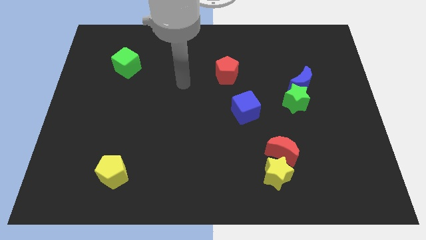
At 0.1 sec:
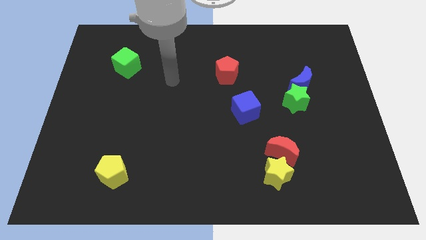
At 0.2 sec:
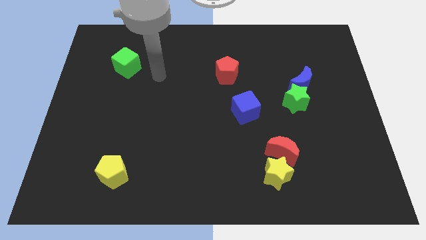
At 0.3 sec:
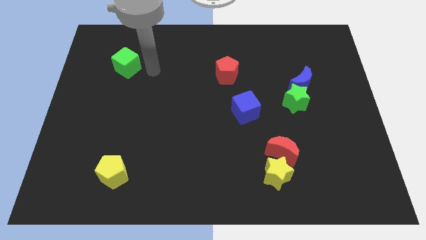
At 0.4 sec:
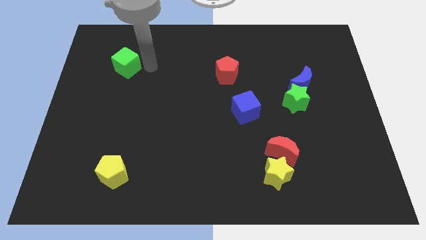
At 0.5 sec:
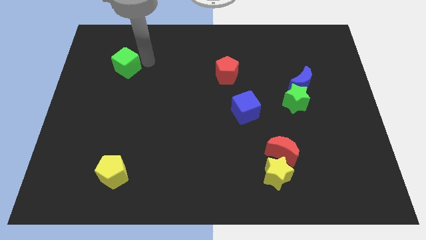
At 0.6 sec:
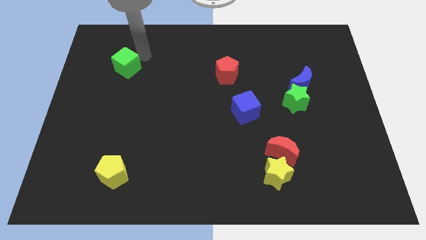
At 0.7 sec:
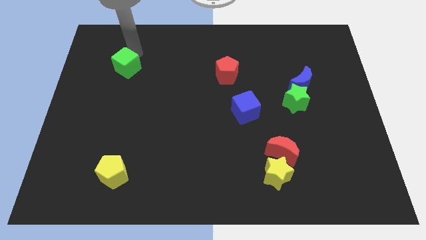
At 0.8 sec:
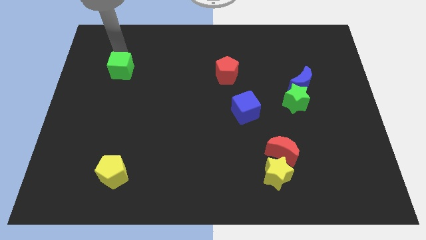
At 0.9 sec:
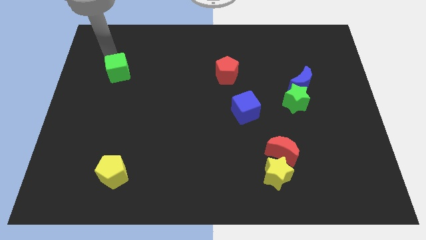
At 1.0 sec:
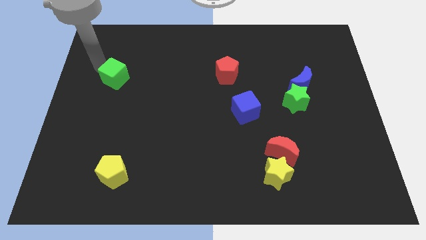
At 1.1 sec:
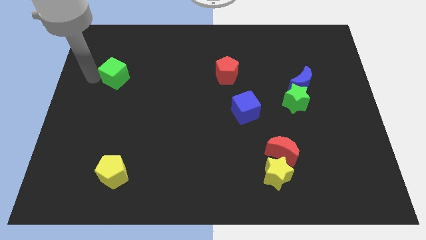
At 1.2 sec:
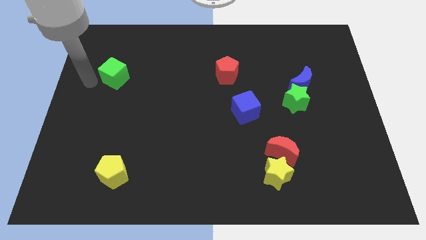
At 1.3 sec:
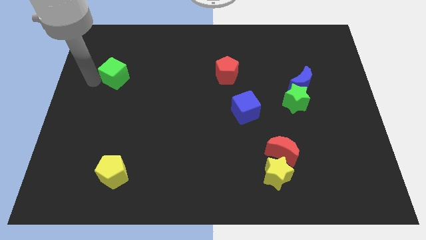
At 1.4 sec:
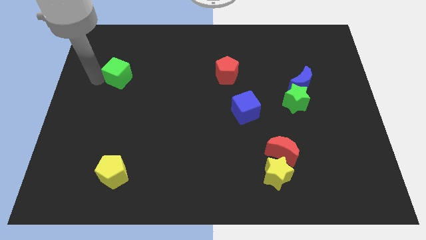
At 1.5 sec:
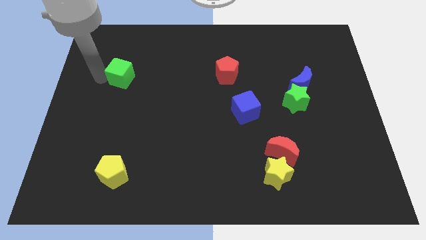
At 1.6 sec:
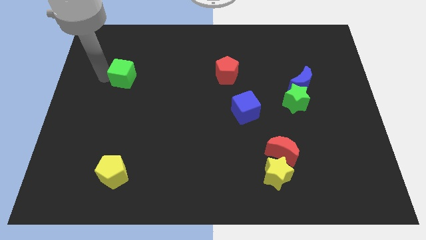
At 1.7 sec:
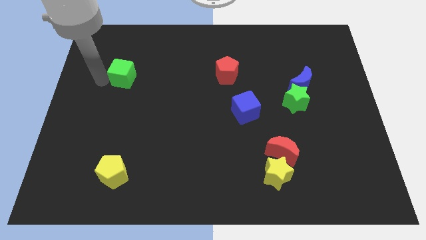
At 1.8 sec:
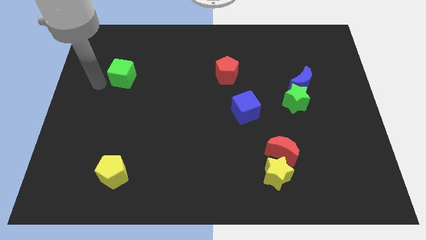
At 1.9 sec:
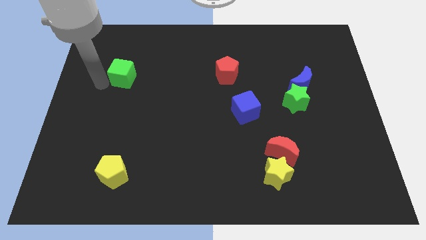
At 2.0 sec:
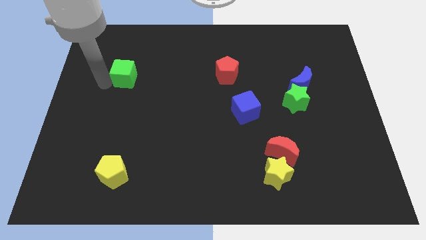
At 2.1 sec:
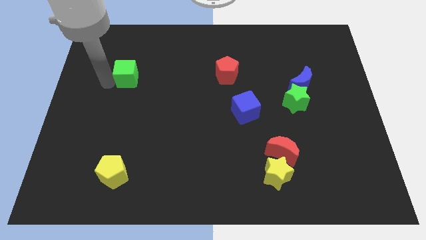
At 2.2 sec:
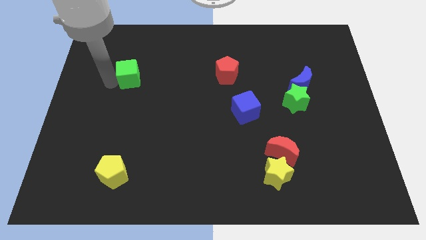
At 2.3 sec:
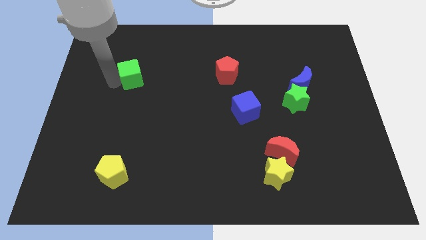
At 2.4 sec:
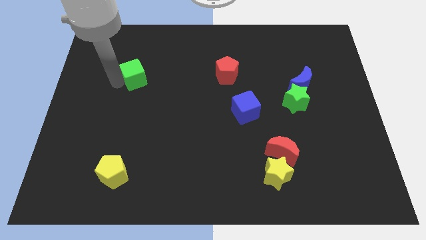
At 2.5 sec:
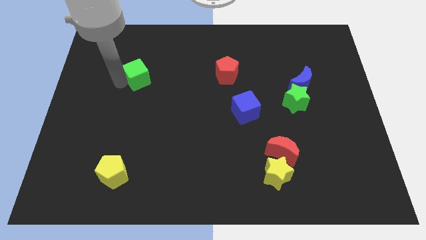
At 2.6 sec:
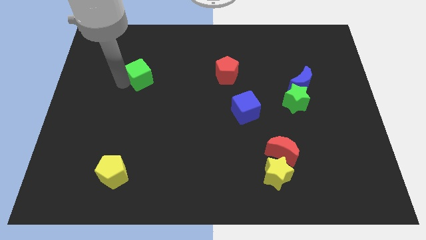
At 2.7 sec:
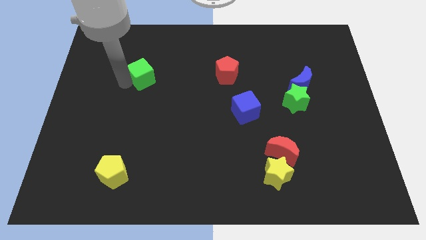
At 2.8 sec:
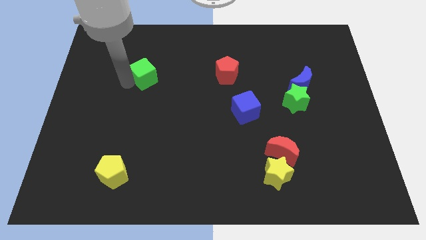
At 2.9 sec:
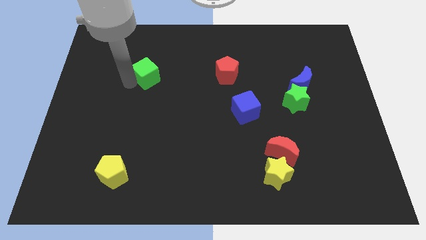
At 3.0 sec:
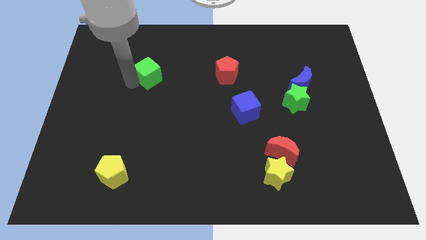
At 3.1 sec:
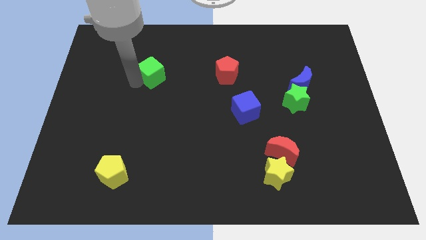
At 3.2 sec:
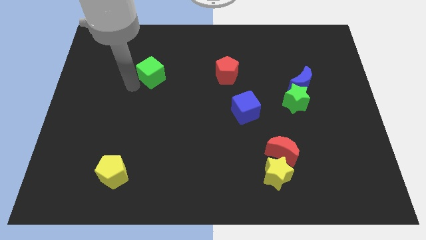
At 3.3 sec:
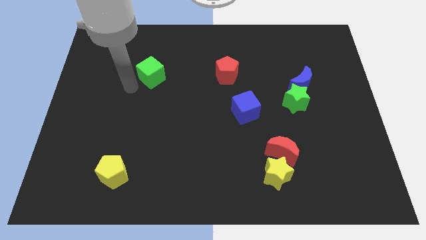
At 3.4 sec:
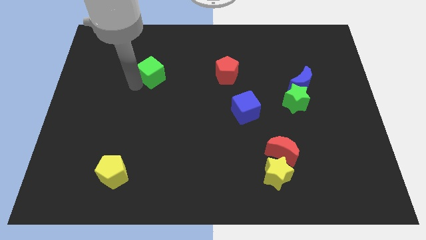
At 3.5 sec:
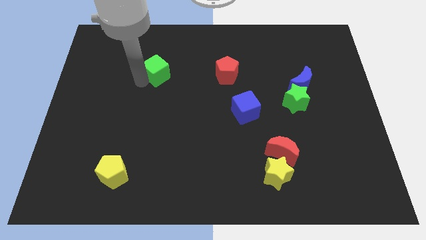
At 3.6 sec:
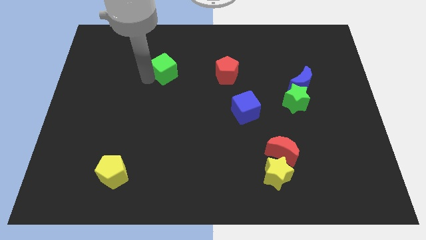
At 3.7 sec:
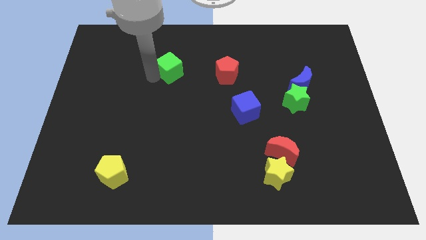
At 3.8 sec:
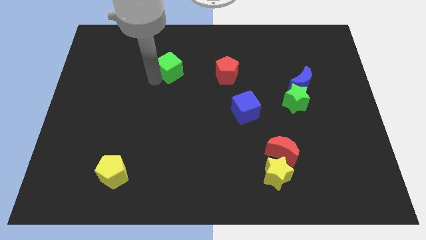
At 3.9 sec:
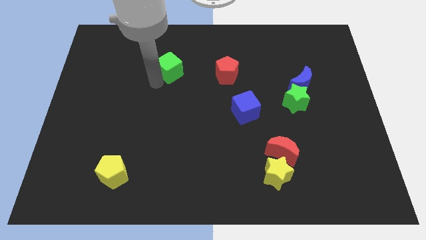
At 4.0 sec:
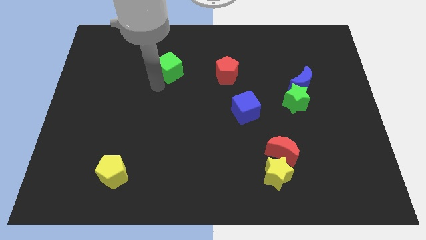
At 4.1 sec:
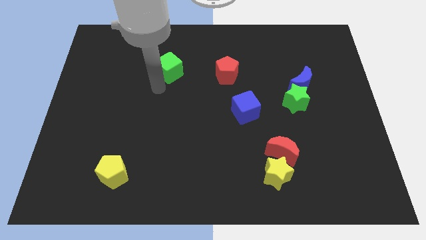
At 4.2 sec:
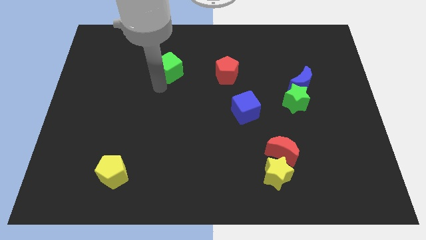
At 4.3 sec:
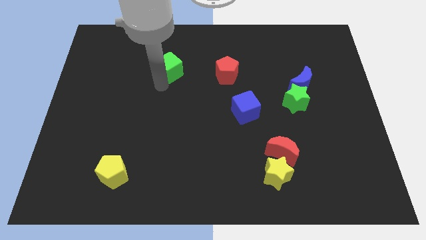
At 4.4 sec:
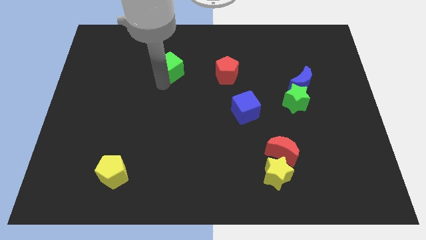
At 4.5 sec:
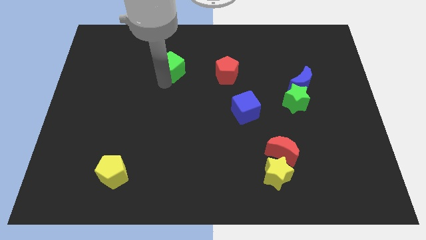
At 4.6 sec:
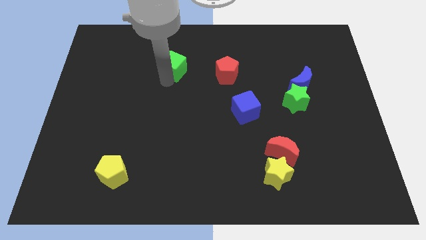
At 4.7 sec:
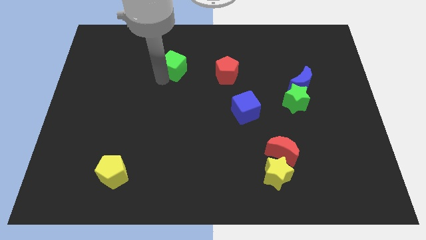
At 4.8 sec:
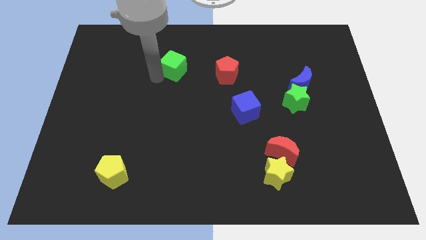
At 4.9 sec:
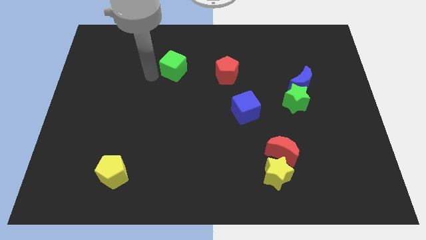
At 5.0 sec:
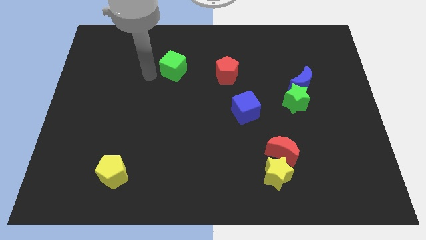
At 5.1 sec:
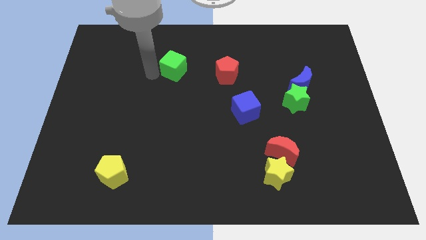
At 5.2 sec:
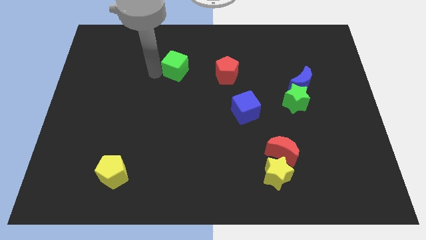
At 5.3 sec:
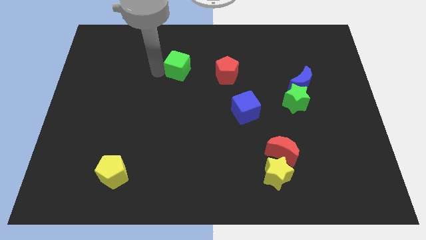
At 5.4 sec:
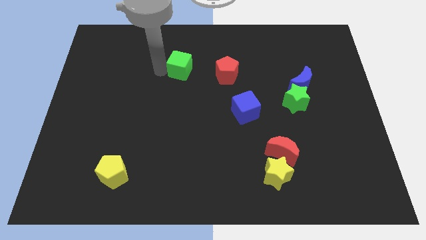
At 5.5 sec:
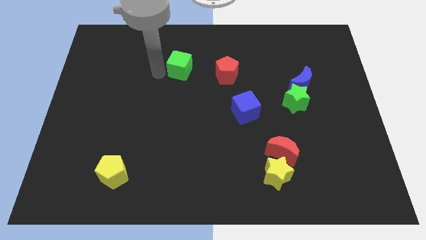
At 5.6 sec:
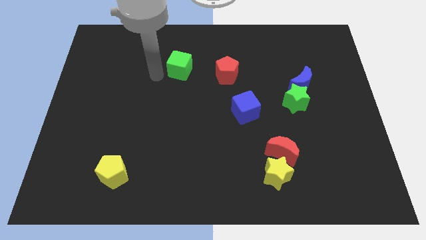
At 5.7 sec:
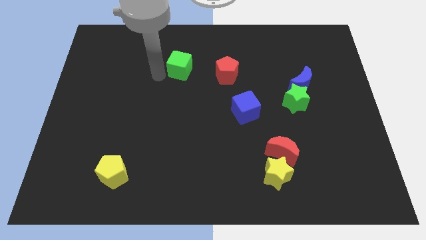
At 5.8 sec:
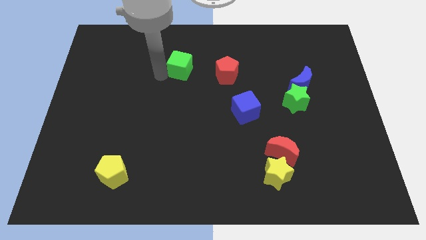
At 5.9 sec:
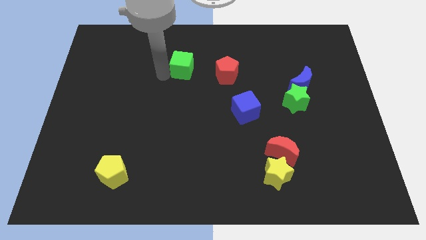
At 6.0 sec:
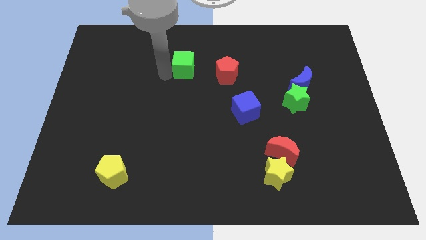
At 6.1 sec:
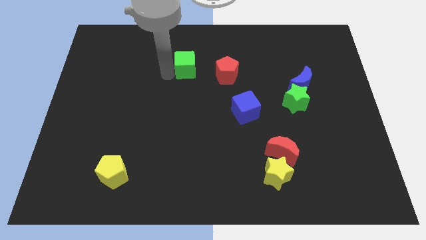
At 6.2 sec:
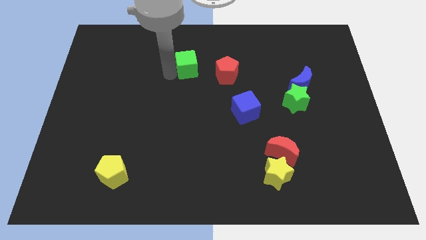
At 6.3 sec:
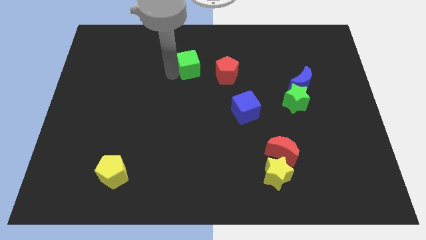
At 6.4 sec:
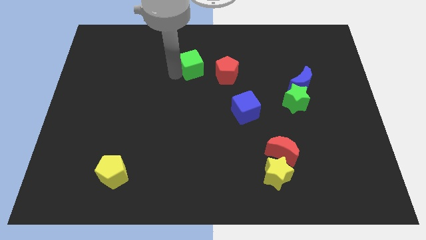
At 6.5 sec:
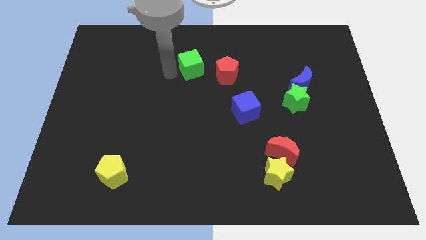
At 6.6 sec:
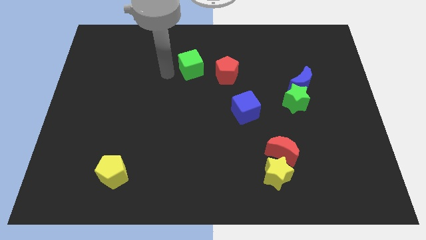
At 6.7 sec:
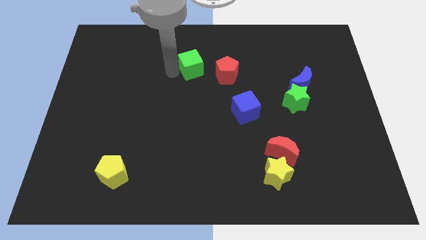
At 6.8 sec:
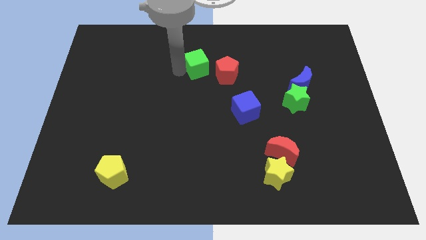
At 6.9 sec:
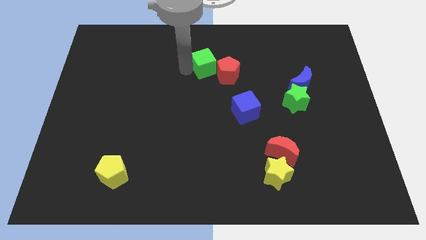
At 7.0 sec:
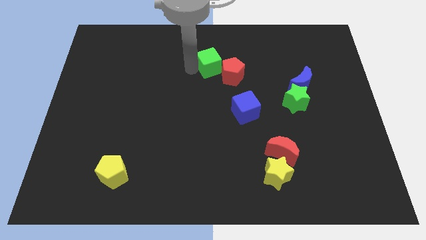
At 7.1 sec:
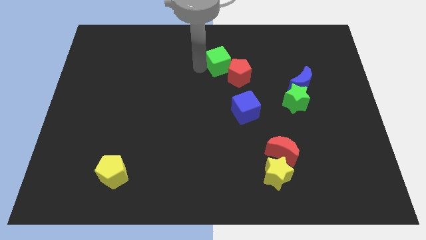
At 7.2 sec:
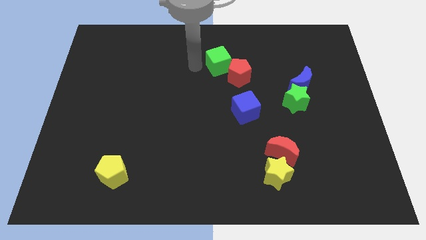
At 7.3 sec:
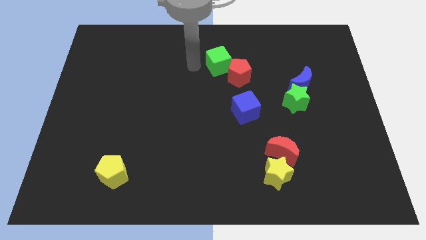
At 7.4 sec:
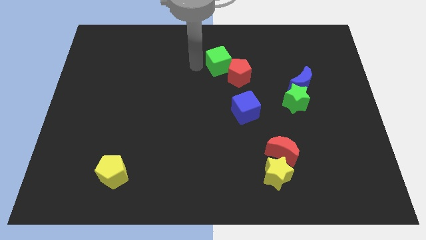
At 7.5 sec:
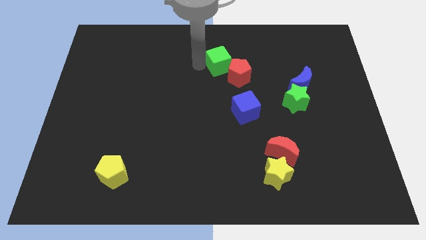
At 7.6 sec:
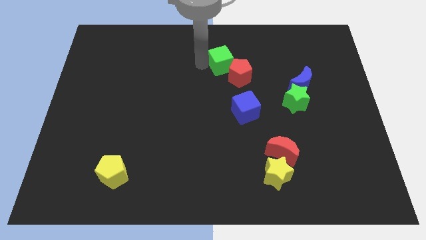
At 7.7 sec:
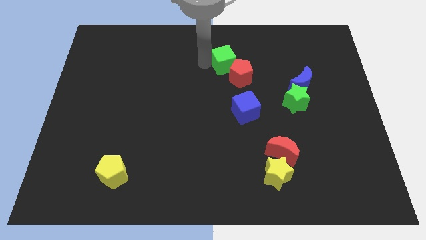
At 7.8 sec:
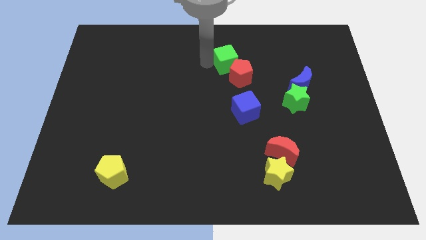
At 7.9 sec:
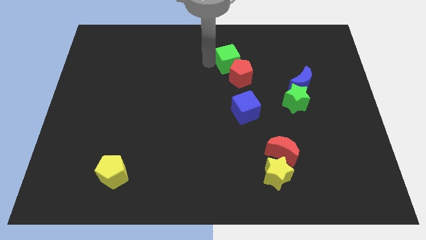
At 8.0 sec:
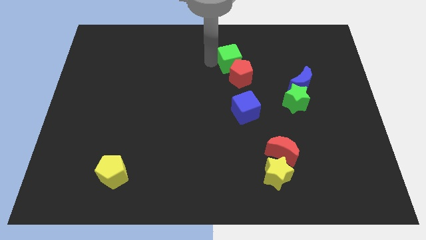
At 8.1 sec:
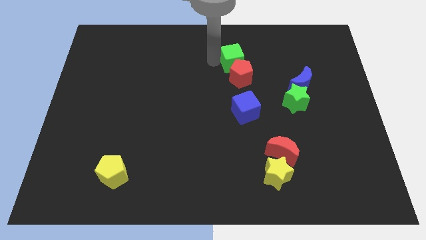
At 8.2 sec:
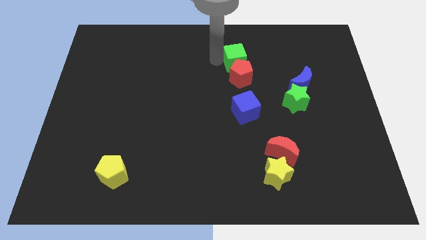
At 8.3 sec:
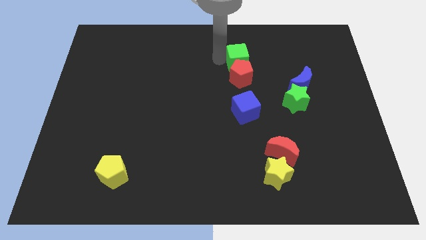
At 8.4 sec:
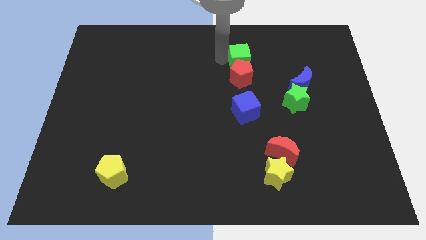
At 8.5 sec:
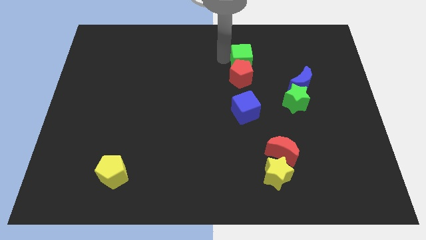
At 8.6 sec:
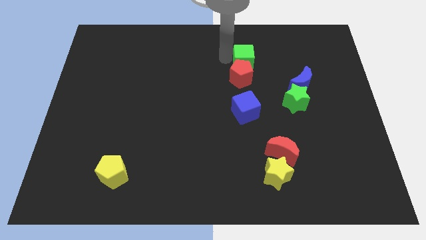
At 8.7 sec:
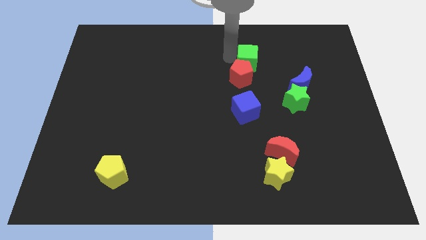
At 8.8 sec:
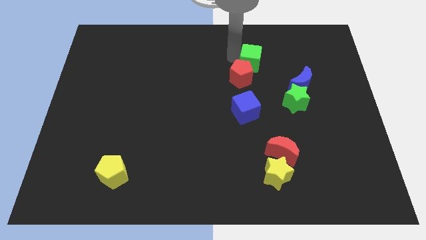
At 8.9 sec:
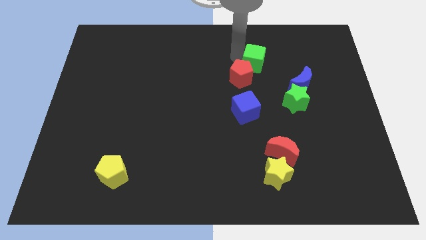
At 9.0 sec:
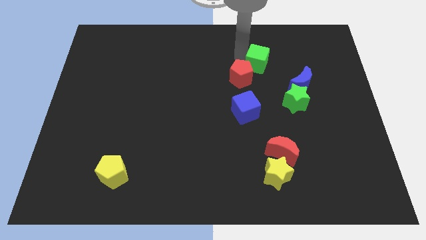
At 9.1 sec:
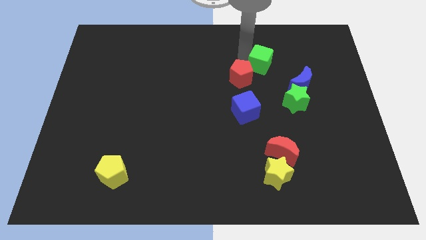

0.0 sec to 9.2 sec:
slide the green cube just right of the red pentagon
